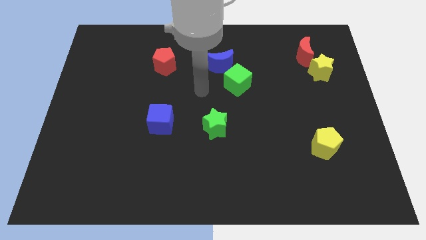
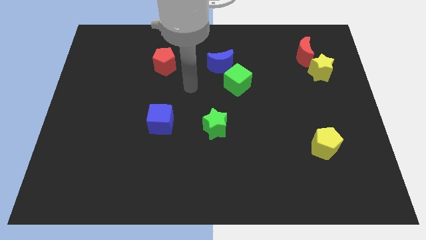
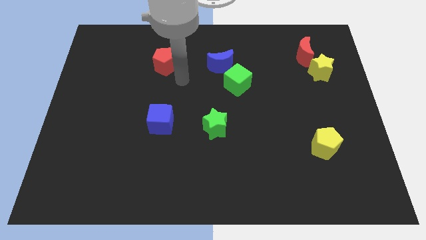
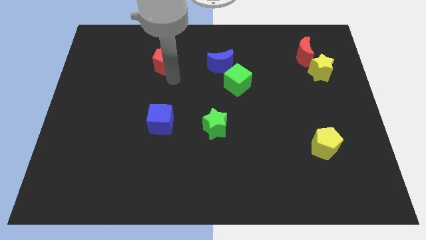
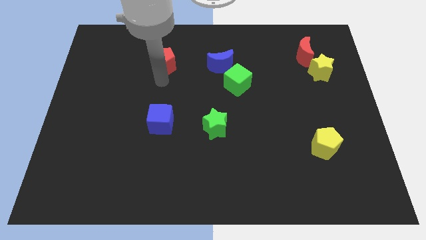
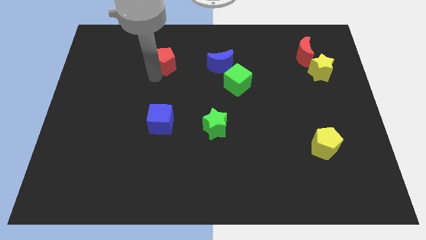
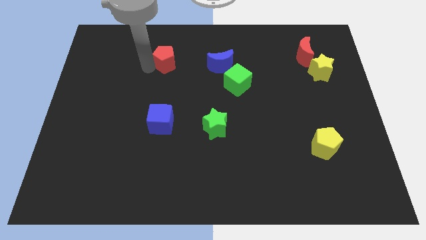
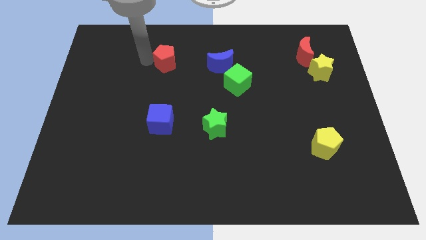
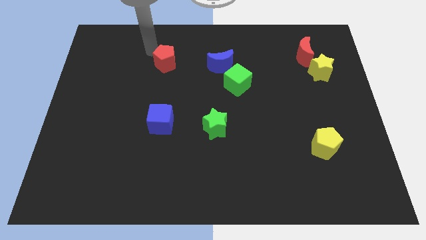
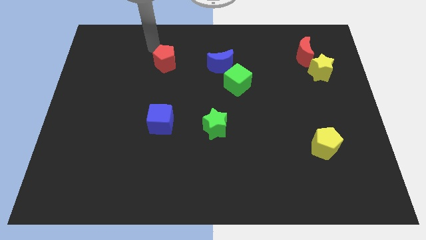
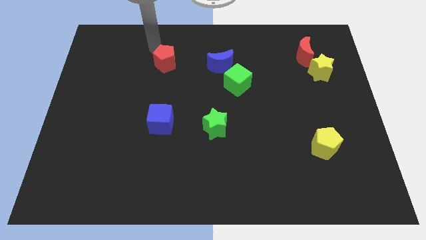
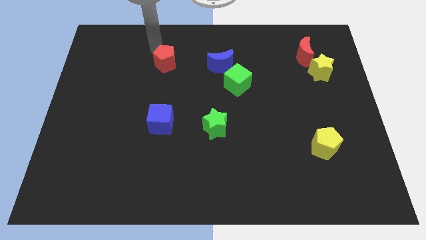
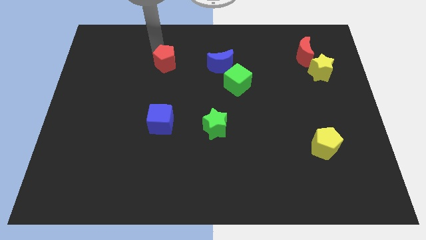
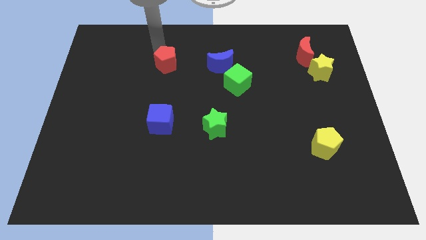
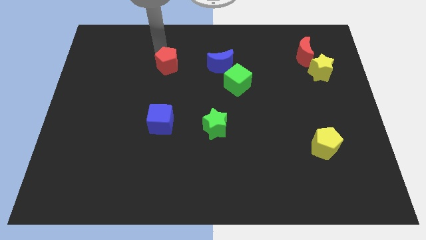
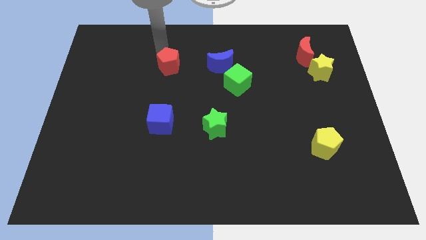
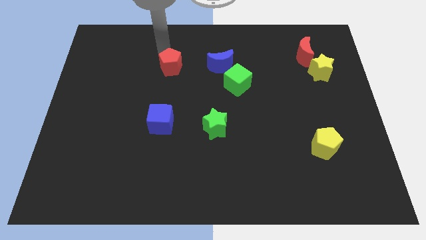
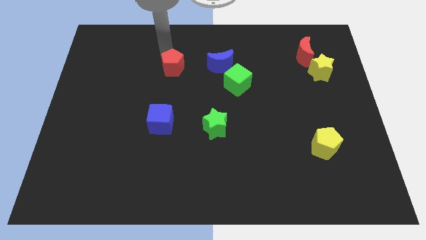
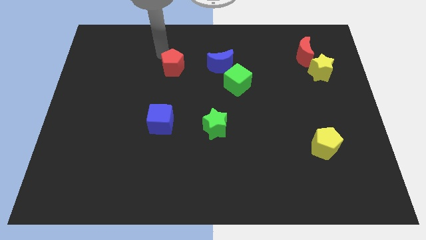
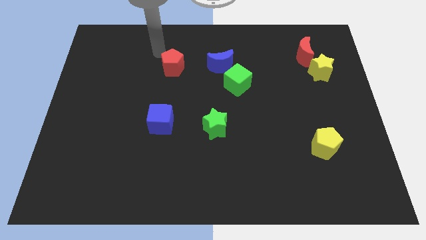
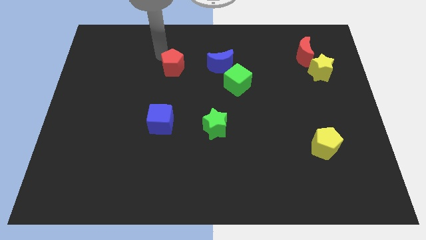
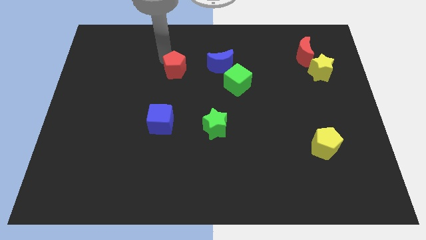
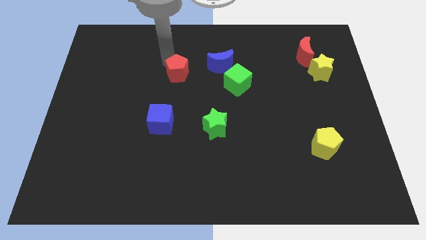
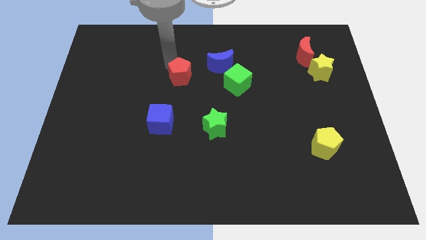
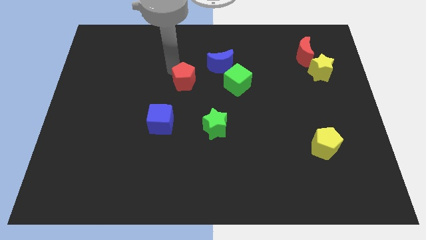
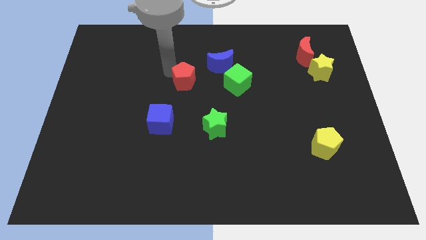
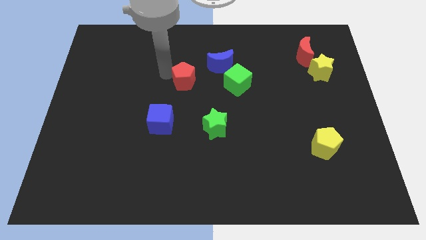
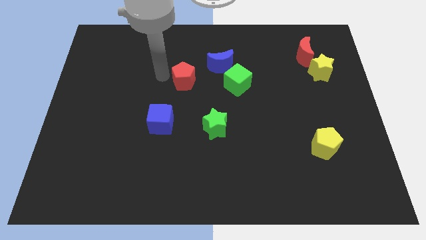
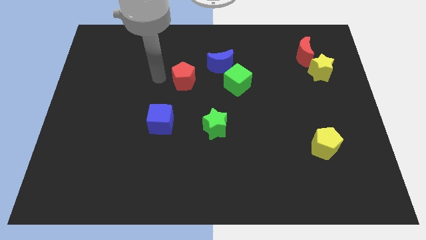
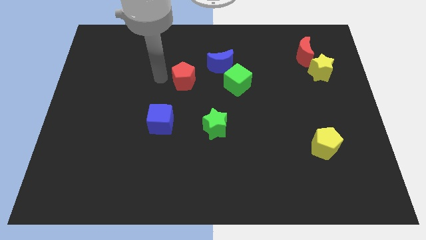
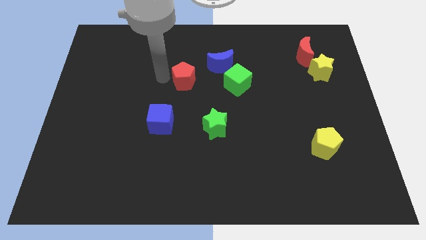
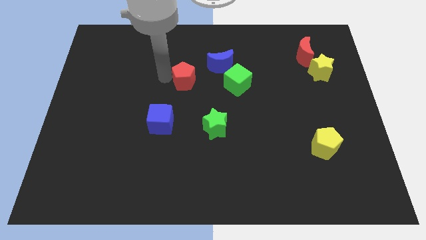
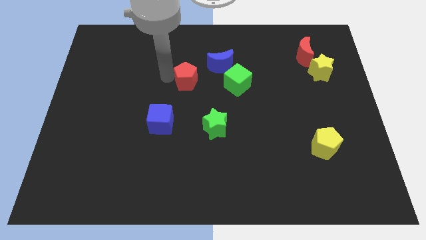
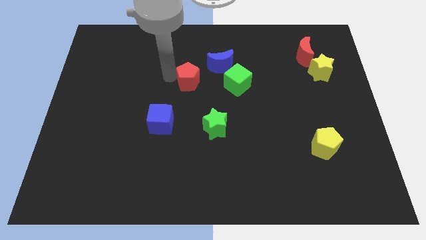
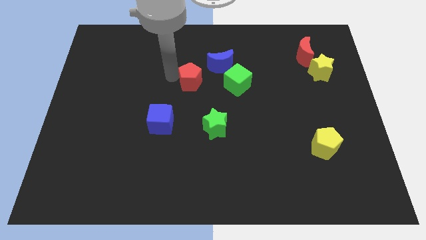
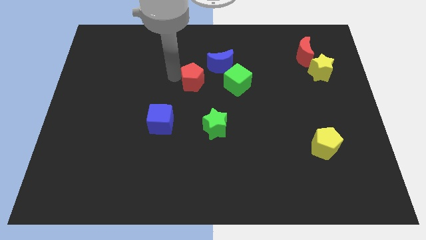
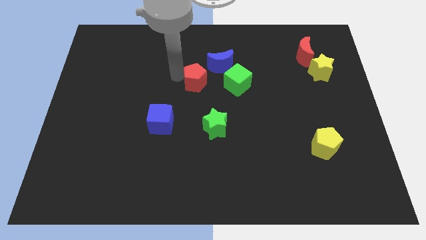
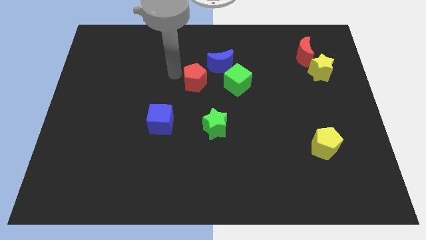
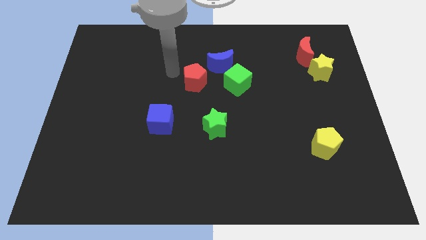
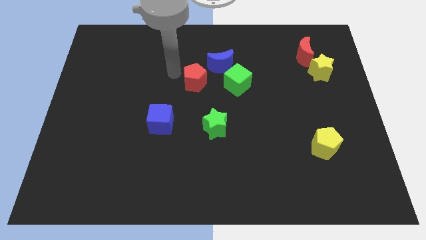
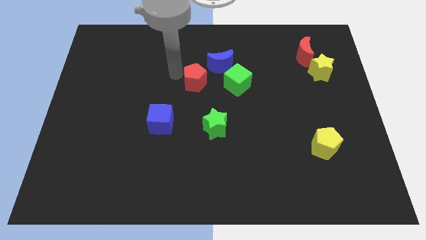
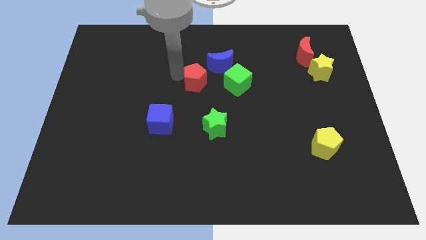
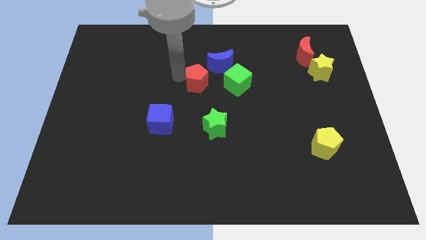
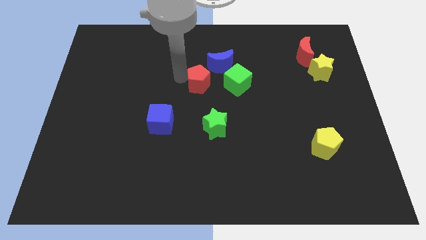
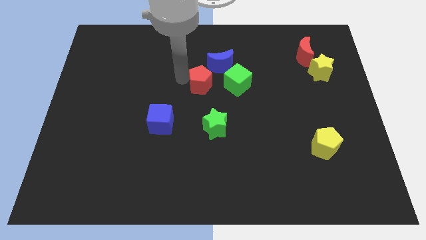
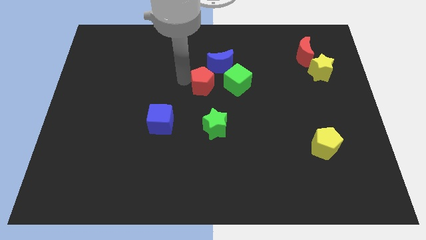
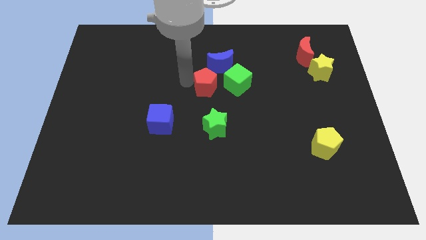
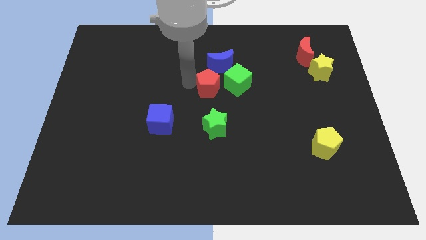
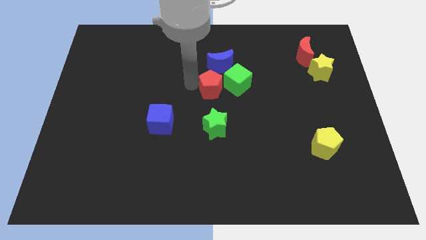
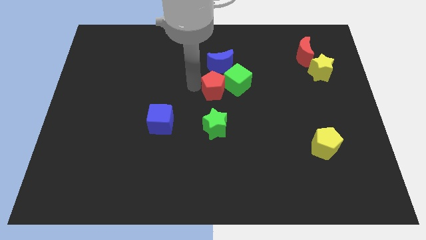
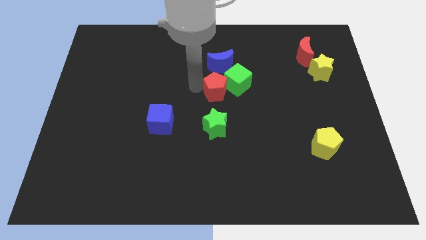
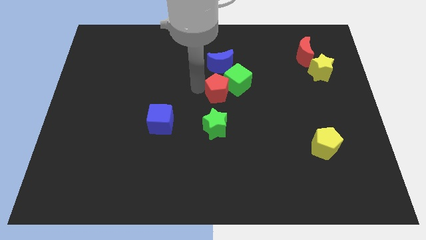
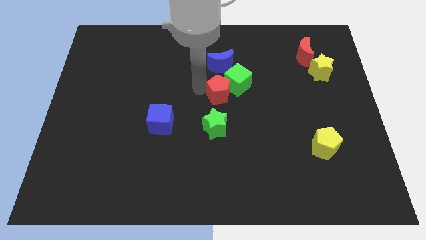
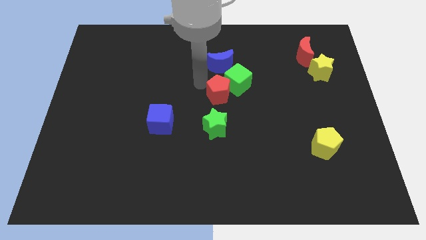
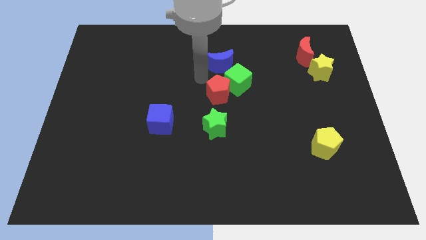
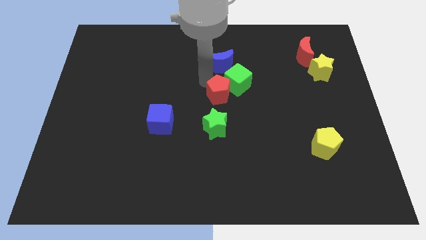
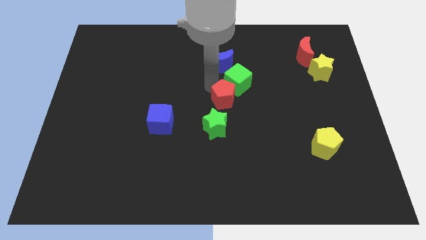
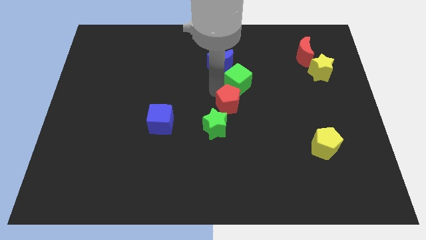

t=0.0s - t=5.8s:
slide the red pentagon down and right

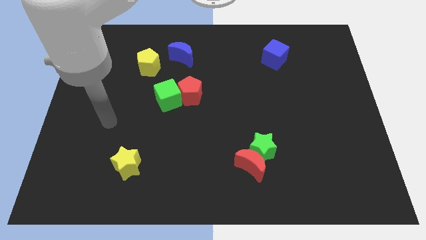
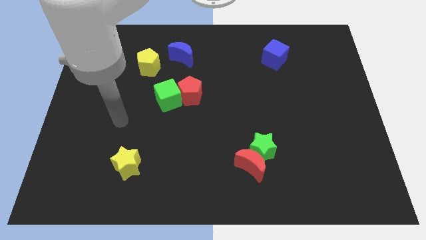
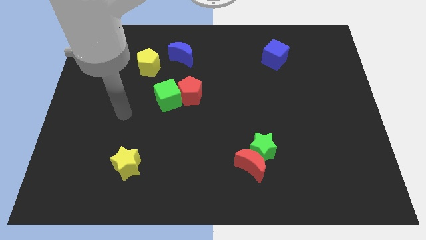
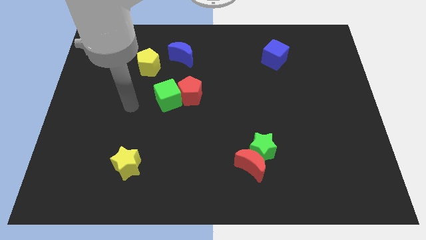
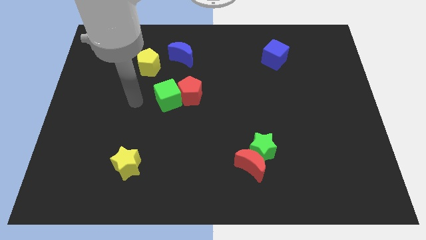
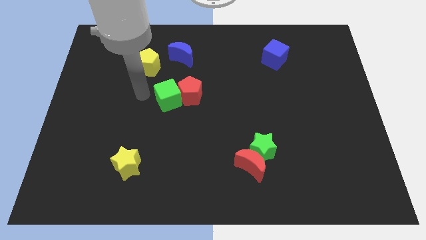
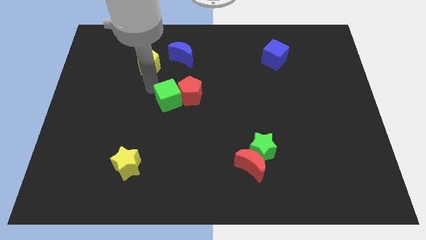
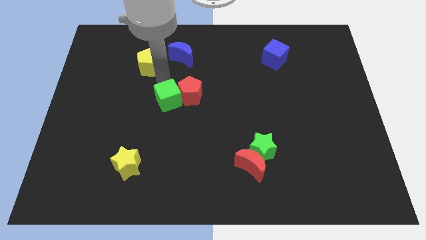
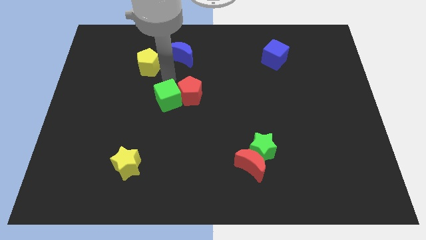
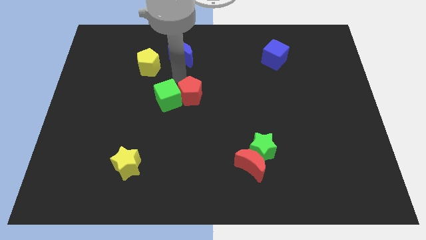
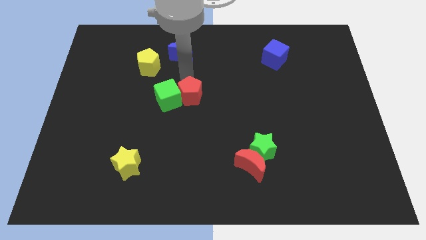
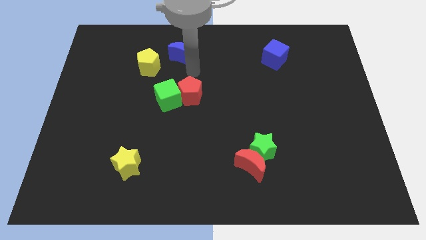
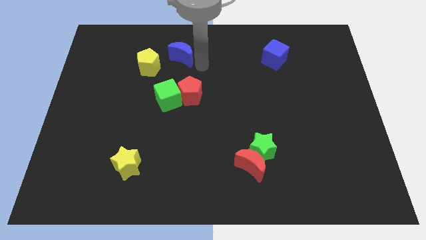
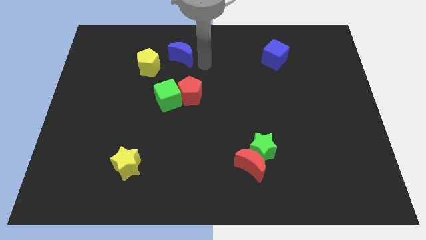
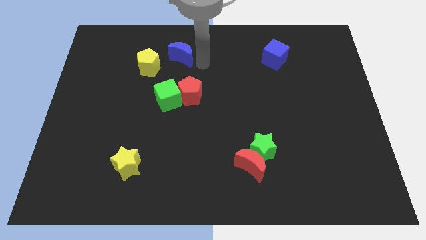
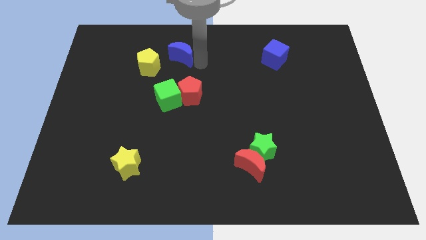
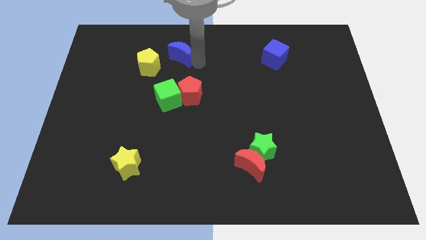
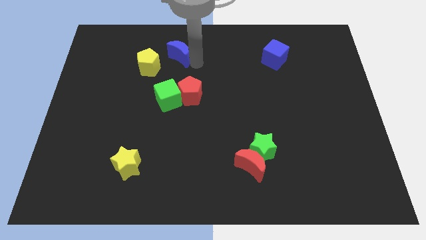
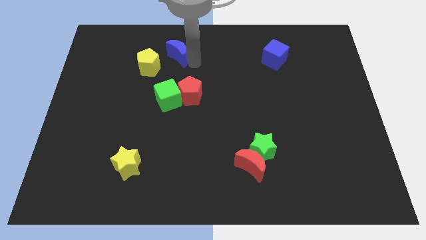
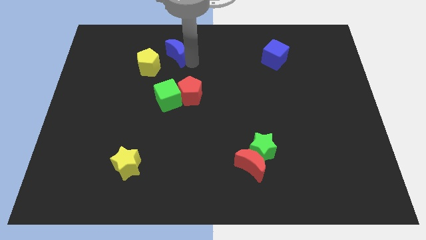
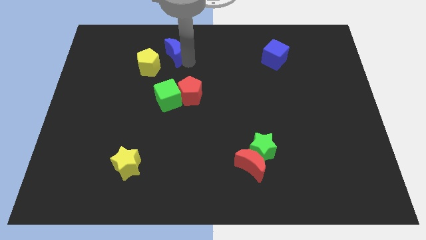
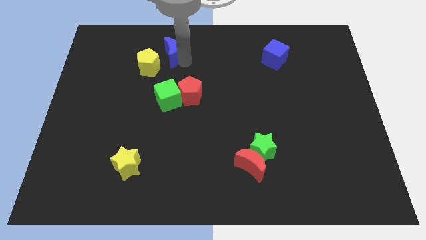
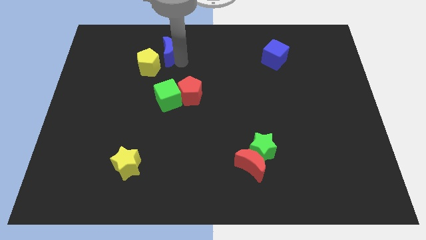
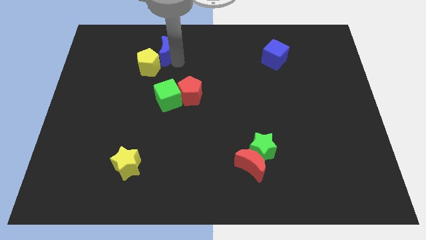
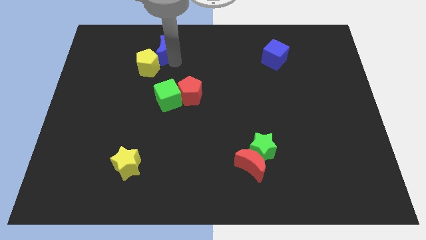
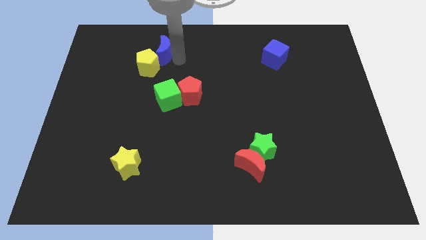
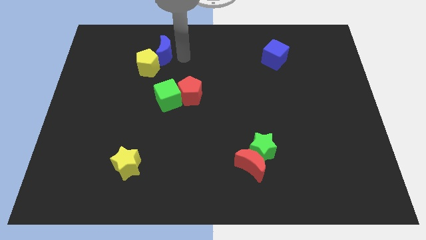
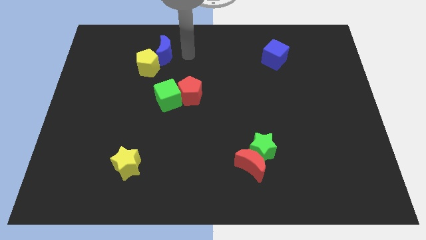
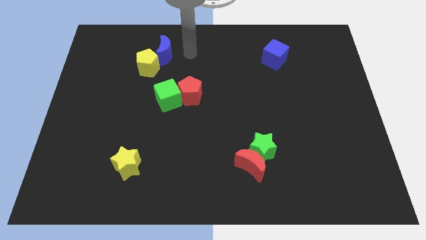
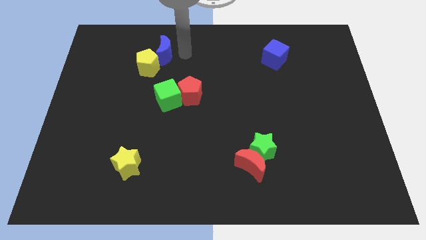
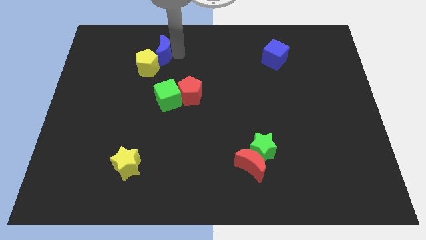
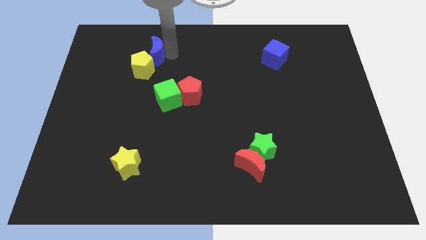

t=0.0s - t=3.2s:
push the blue moon a little to the left
